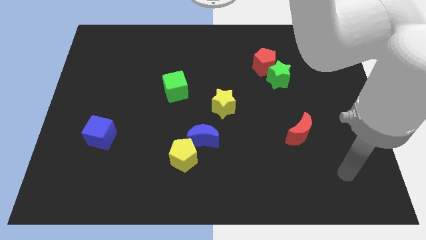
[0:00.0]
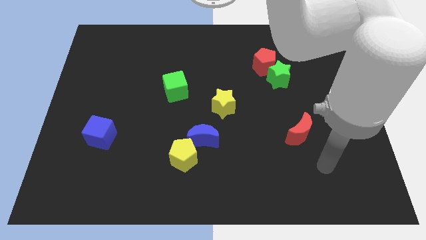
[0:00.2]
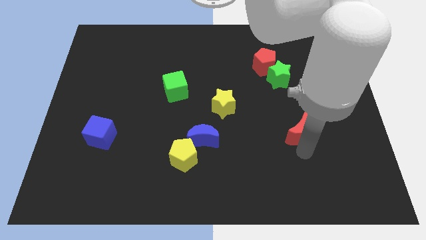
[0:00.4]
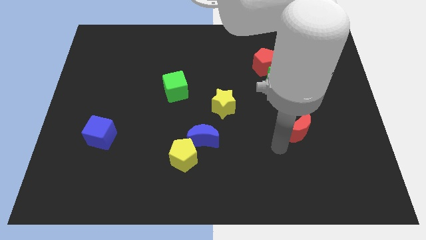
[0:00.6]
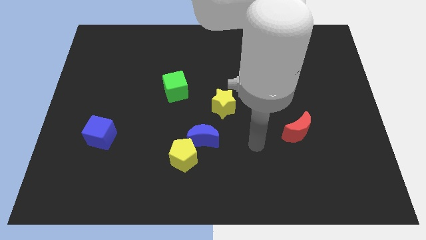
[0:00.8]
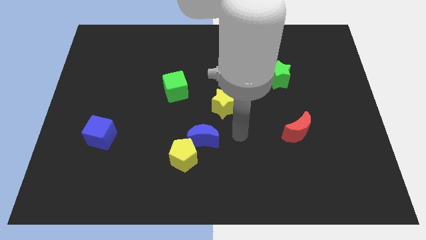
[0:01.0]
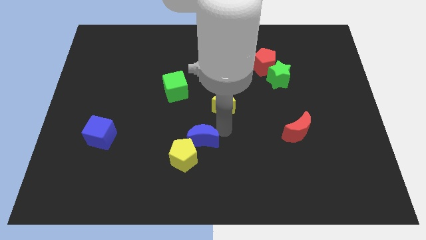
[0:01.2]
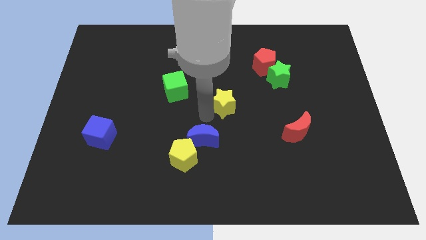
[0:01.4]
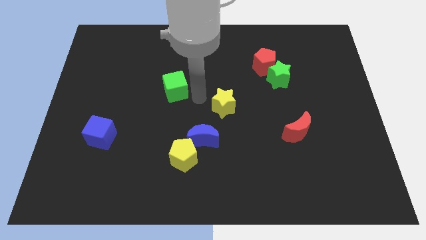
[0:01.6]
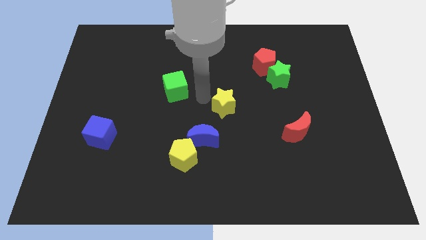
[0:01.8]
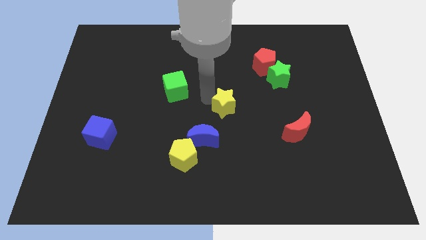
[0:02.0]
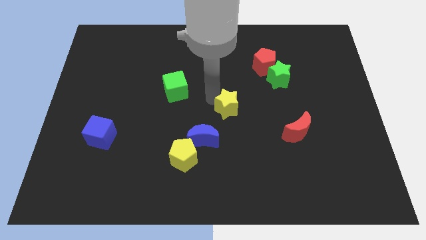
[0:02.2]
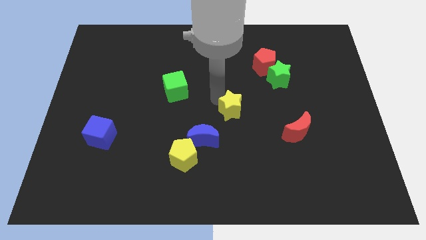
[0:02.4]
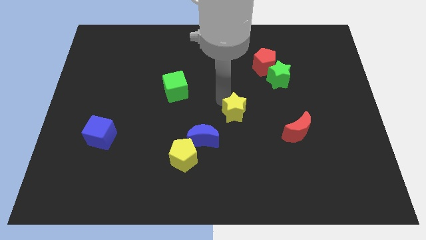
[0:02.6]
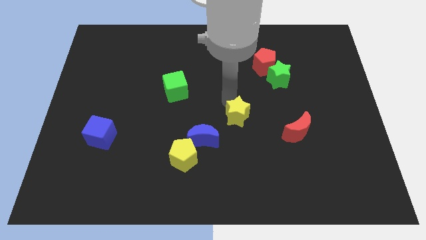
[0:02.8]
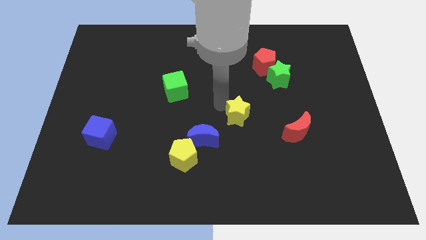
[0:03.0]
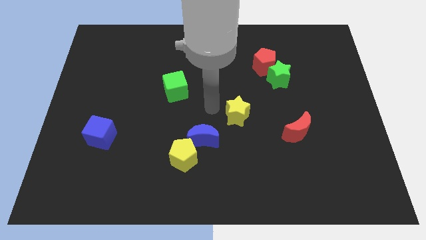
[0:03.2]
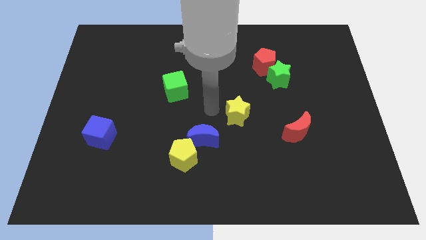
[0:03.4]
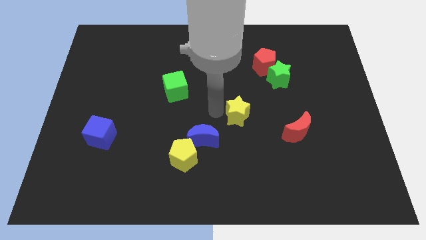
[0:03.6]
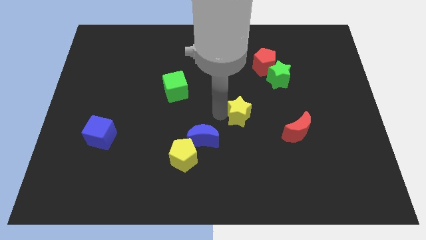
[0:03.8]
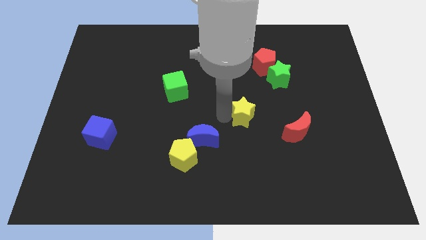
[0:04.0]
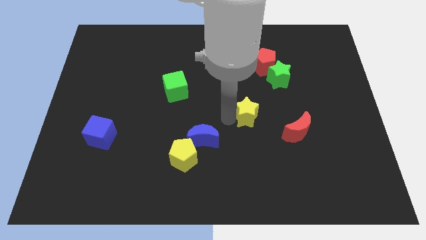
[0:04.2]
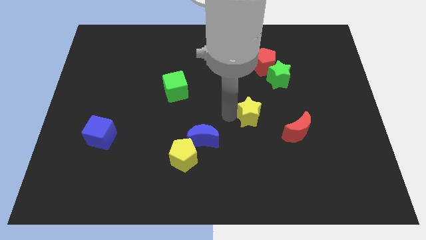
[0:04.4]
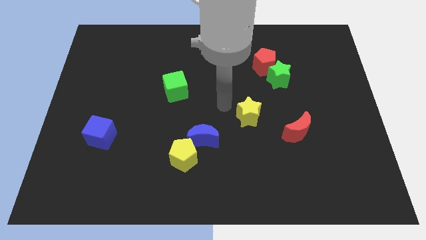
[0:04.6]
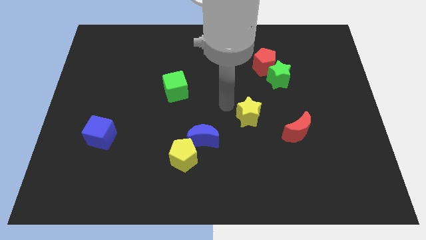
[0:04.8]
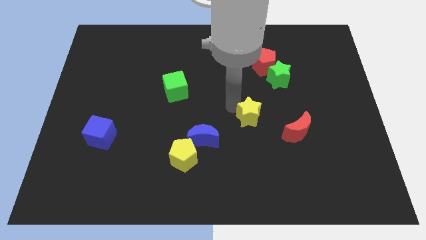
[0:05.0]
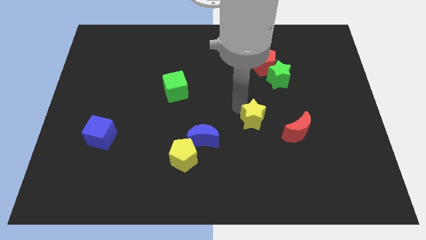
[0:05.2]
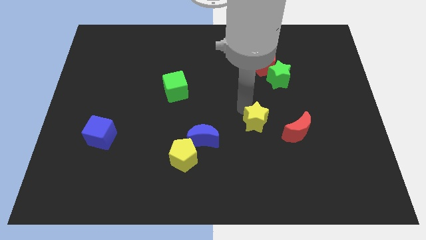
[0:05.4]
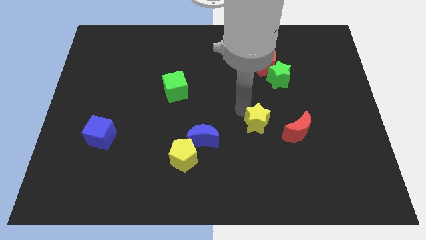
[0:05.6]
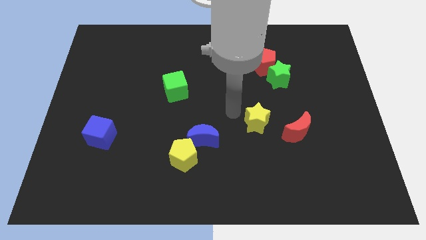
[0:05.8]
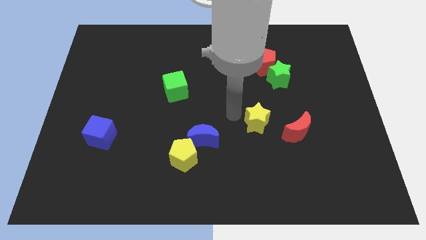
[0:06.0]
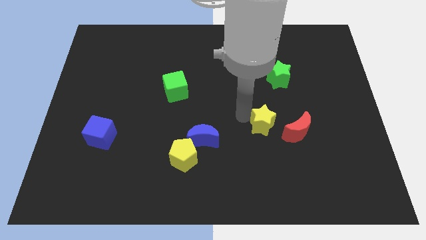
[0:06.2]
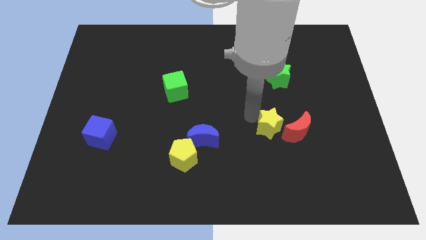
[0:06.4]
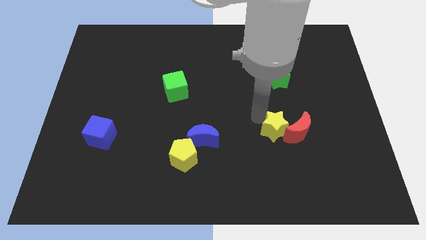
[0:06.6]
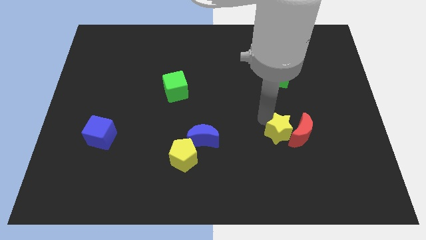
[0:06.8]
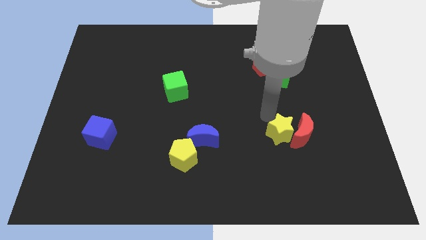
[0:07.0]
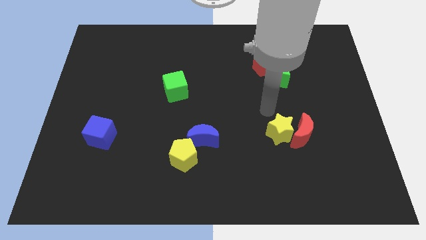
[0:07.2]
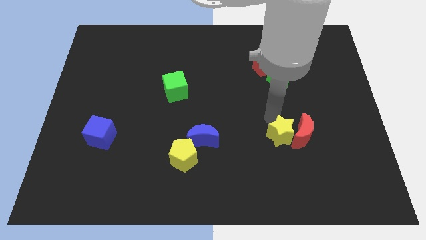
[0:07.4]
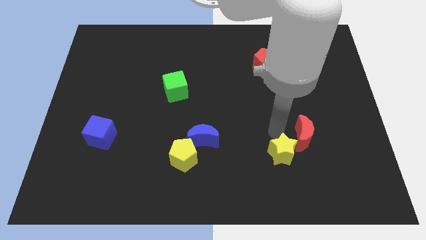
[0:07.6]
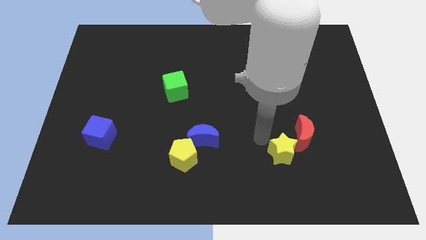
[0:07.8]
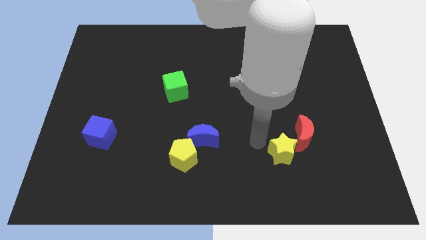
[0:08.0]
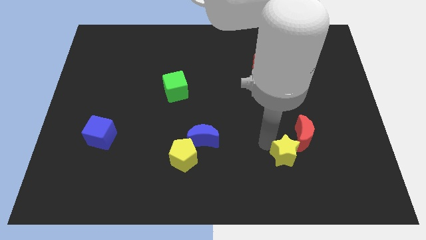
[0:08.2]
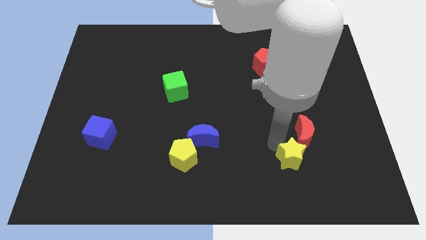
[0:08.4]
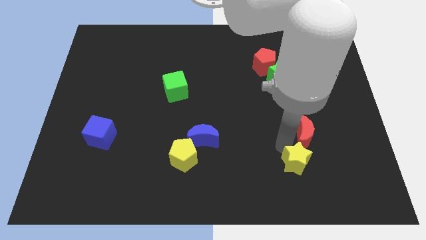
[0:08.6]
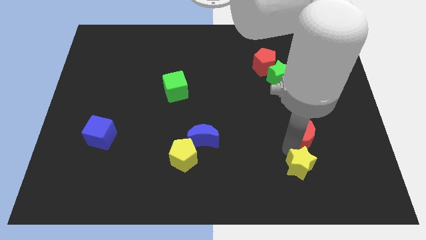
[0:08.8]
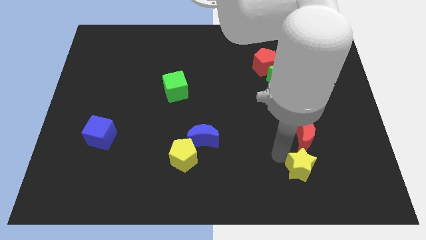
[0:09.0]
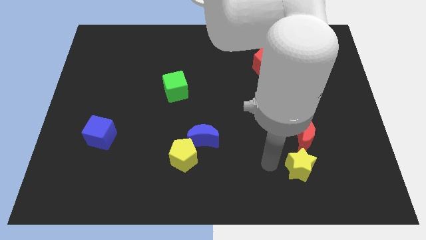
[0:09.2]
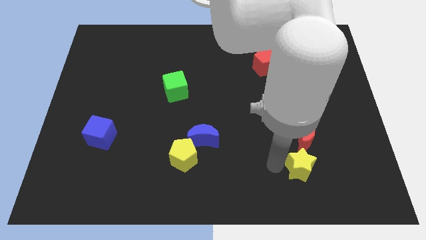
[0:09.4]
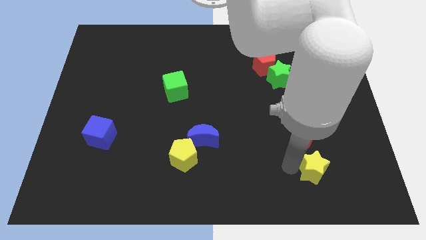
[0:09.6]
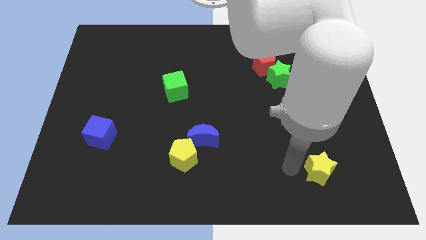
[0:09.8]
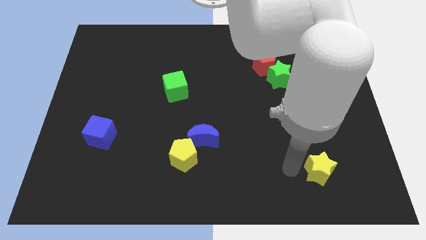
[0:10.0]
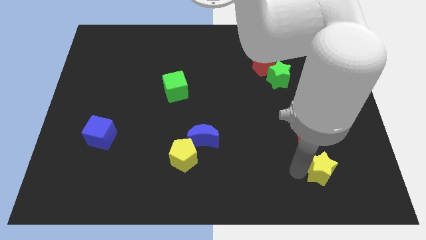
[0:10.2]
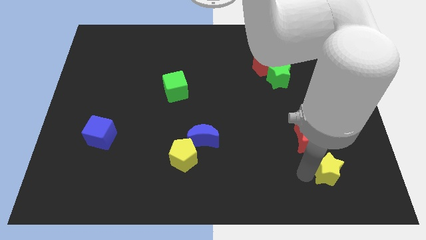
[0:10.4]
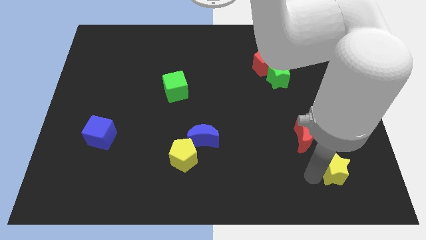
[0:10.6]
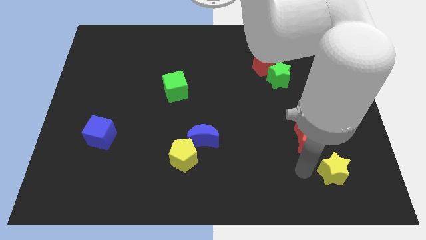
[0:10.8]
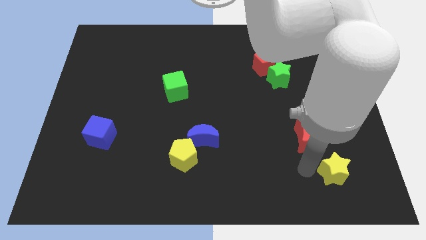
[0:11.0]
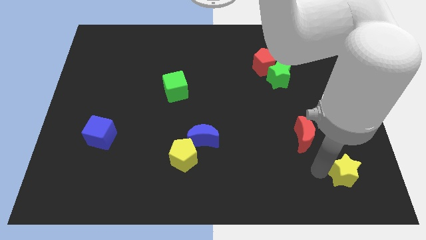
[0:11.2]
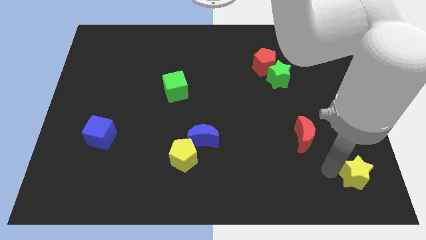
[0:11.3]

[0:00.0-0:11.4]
move the yellow star to the bottom right corner

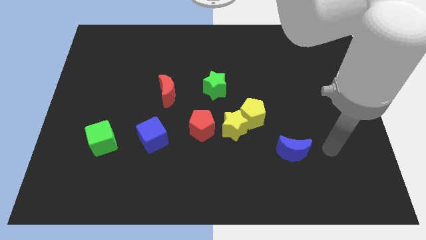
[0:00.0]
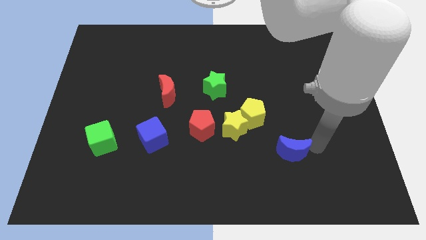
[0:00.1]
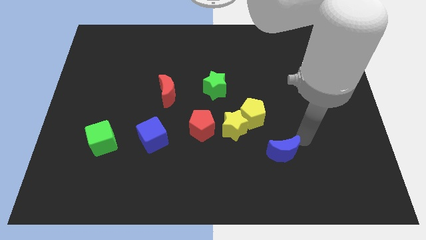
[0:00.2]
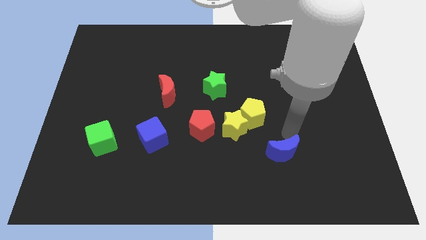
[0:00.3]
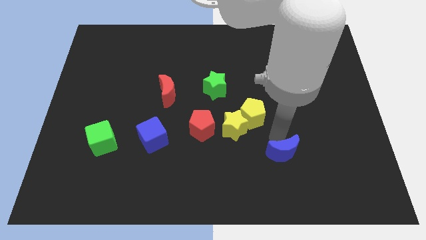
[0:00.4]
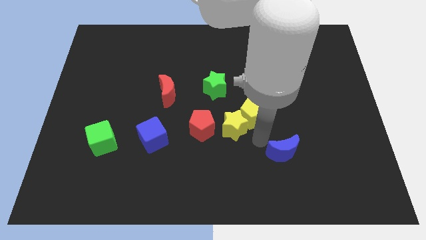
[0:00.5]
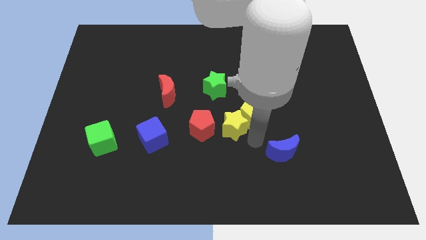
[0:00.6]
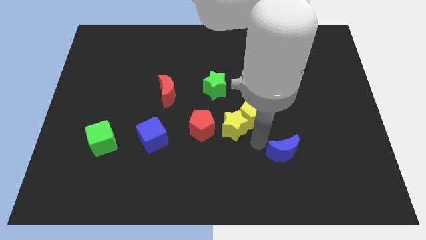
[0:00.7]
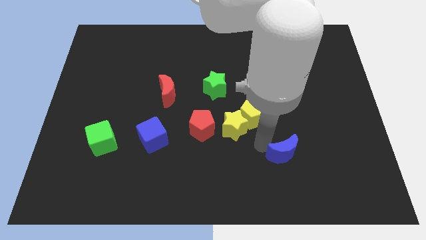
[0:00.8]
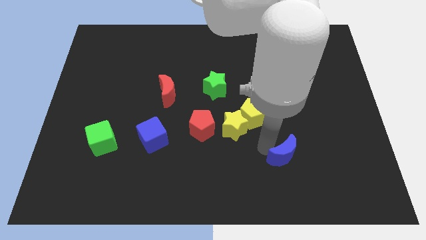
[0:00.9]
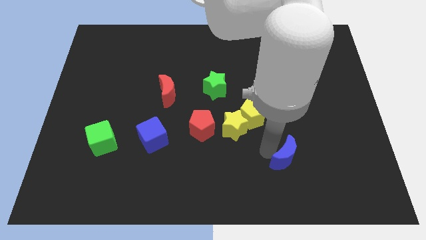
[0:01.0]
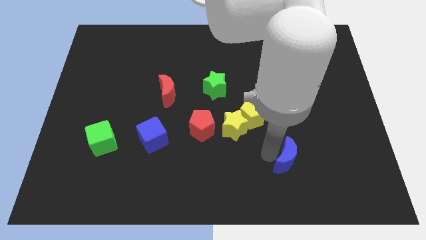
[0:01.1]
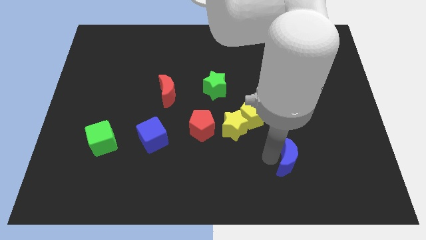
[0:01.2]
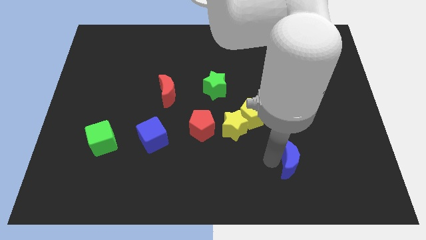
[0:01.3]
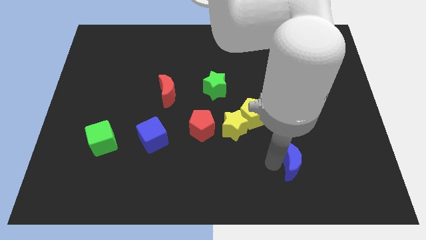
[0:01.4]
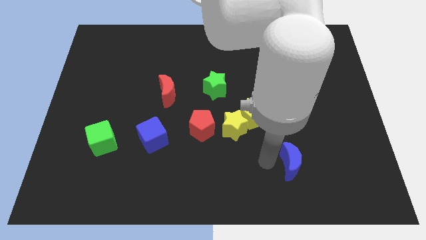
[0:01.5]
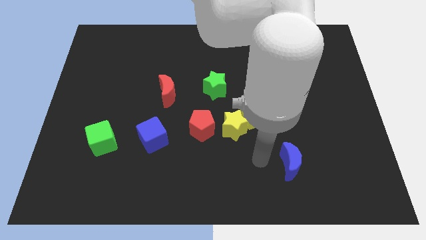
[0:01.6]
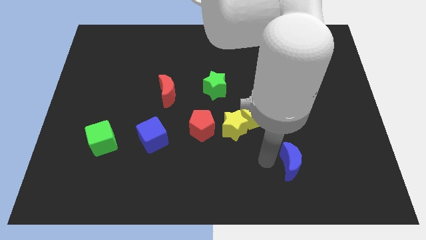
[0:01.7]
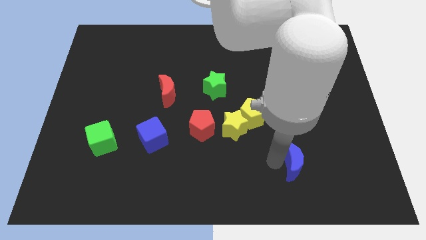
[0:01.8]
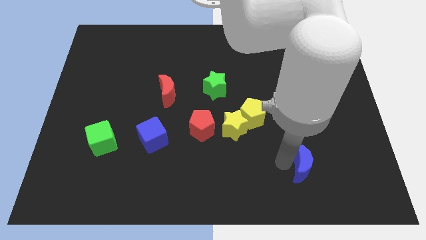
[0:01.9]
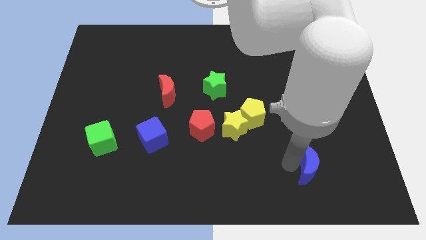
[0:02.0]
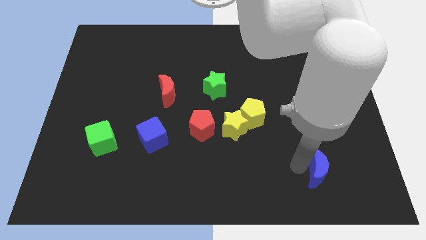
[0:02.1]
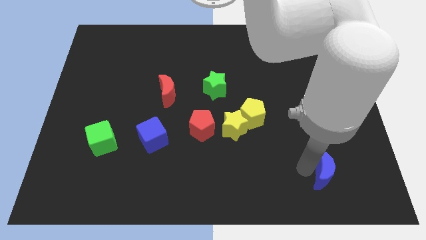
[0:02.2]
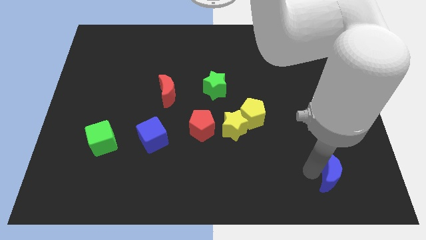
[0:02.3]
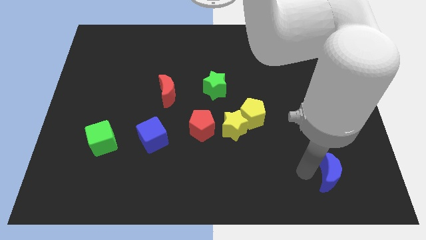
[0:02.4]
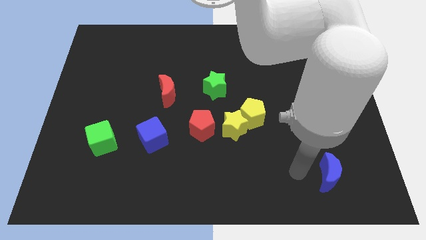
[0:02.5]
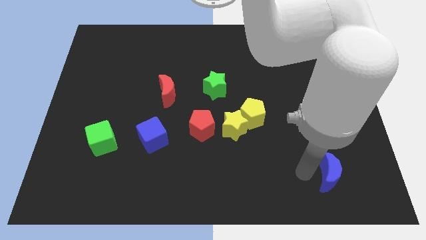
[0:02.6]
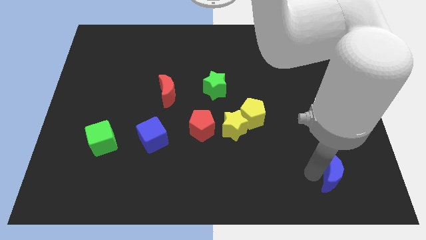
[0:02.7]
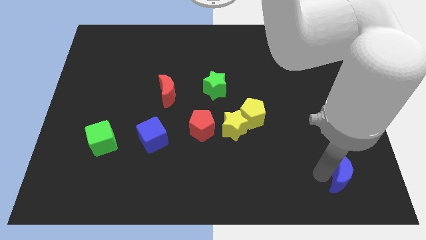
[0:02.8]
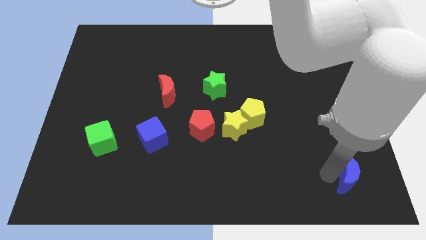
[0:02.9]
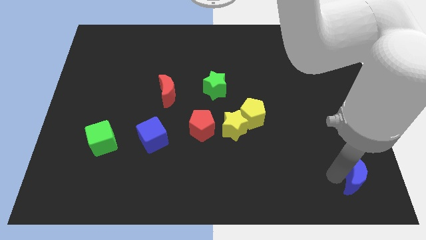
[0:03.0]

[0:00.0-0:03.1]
push the blue moon to the bottom right of the board
